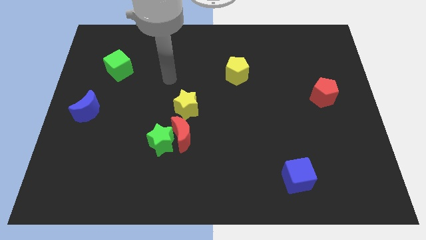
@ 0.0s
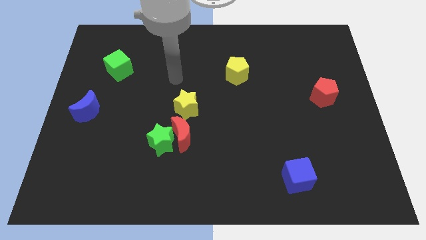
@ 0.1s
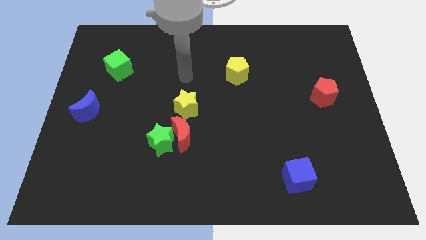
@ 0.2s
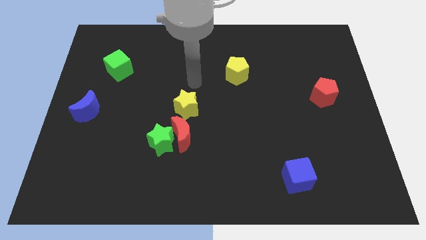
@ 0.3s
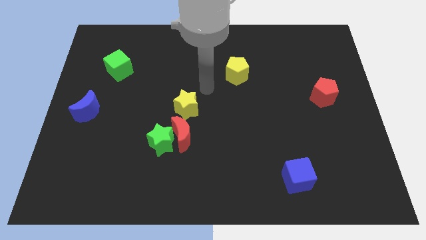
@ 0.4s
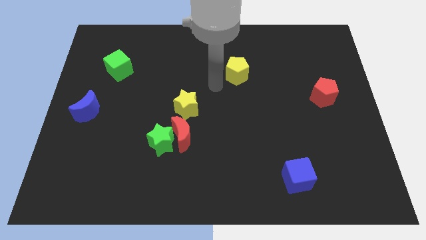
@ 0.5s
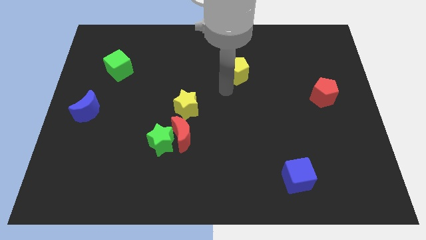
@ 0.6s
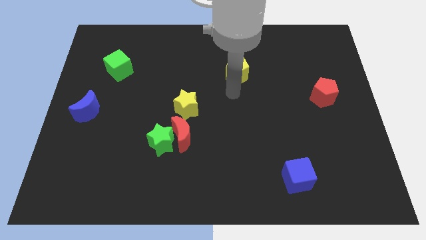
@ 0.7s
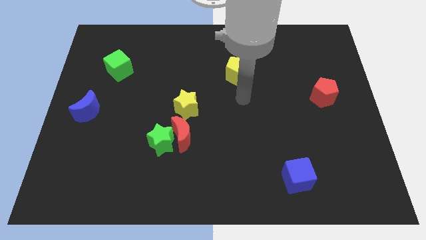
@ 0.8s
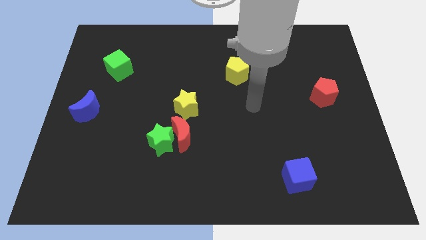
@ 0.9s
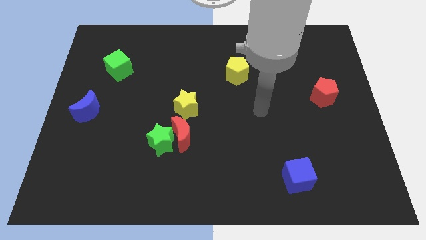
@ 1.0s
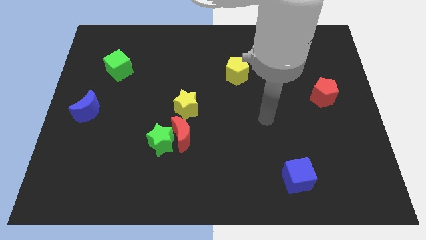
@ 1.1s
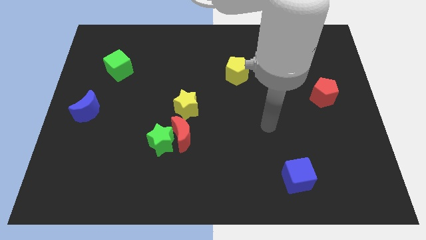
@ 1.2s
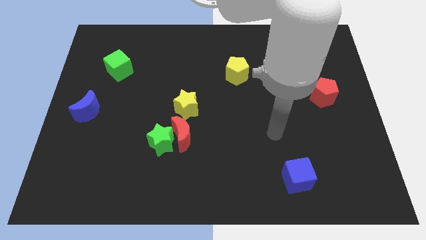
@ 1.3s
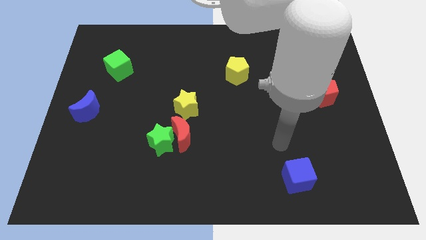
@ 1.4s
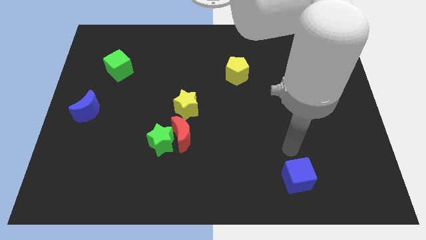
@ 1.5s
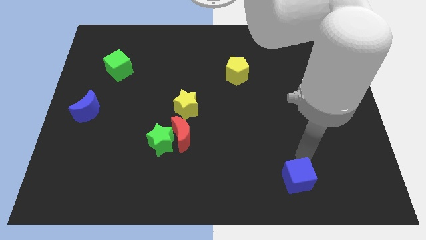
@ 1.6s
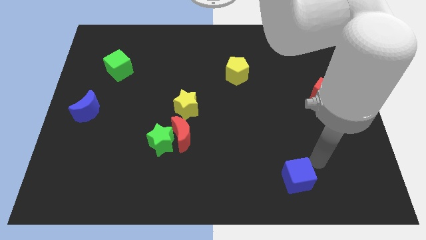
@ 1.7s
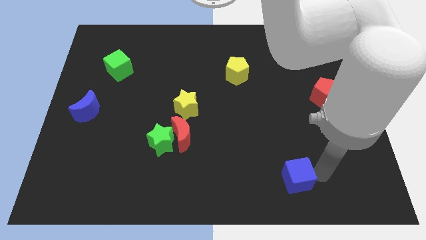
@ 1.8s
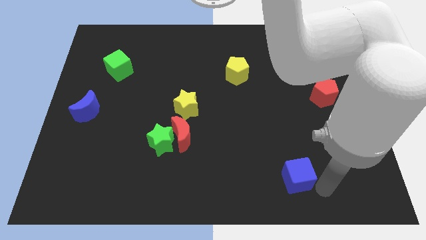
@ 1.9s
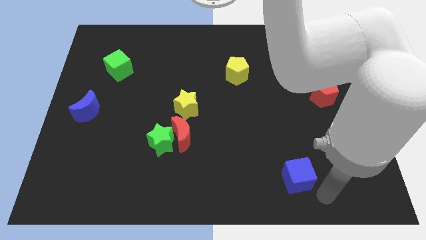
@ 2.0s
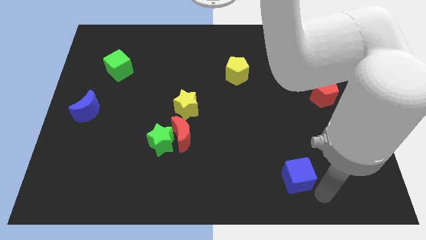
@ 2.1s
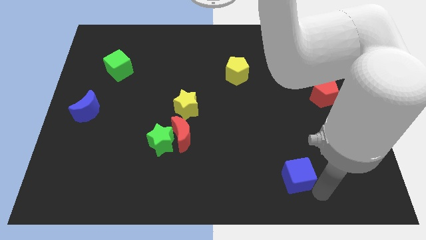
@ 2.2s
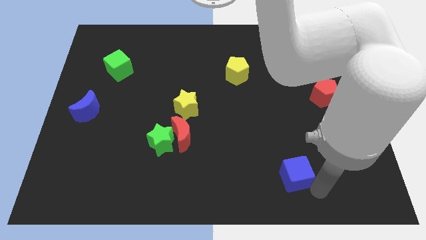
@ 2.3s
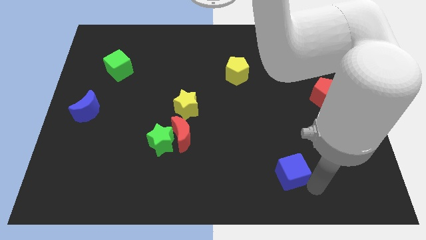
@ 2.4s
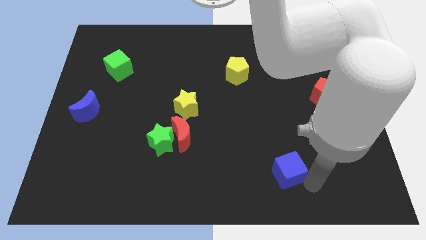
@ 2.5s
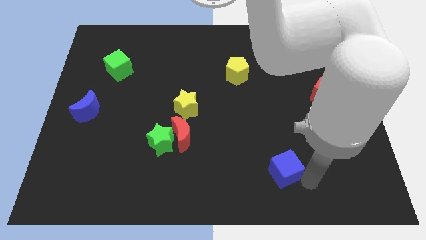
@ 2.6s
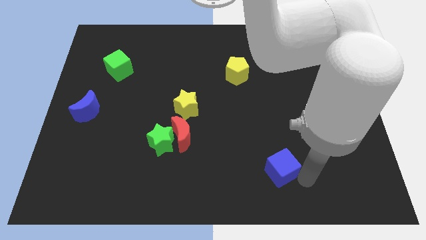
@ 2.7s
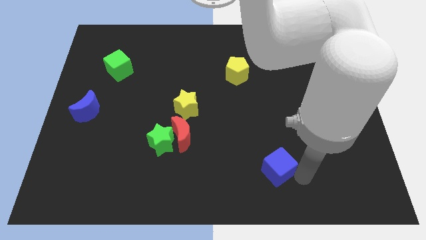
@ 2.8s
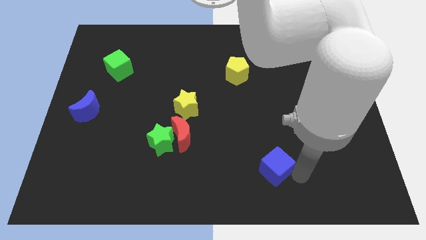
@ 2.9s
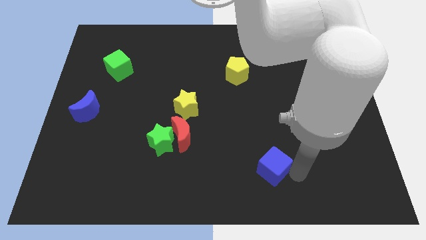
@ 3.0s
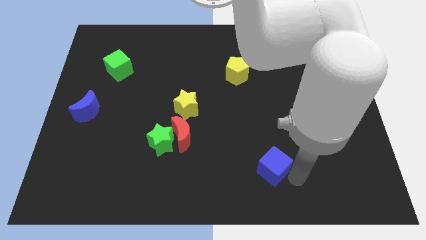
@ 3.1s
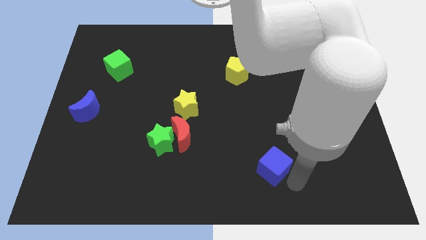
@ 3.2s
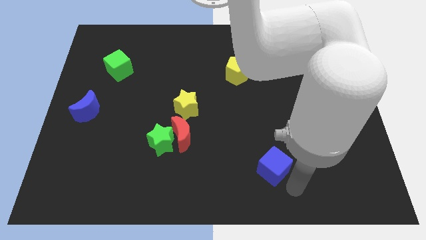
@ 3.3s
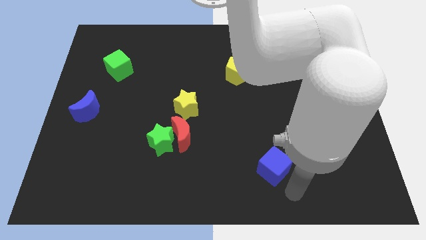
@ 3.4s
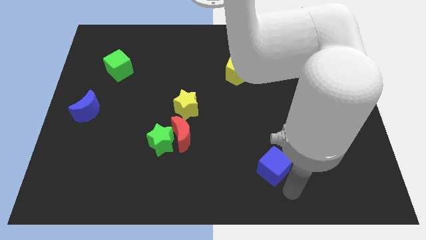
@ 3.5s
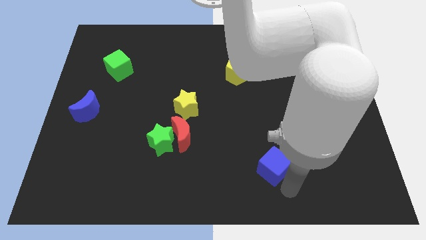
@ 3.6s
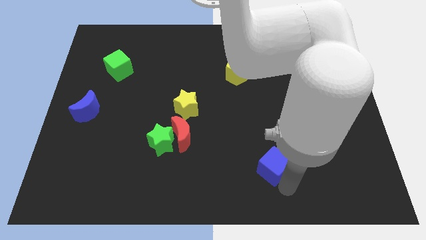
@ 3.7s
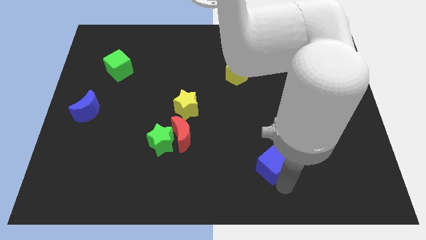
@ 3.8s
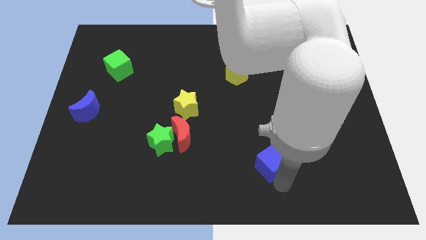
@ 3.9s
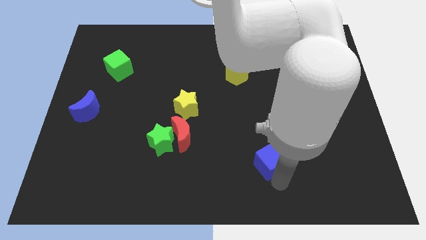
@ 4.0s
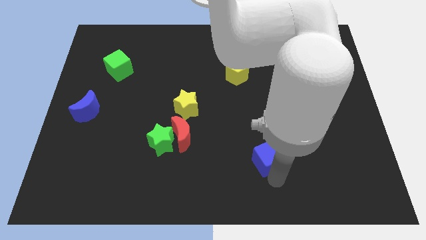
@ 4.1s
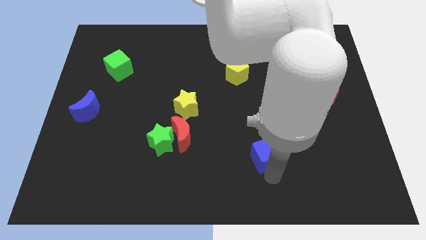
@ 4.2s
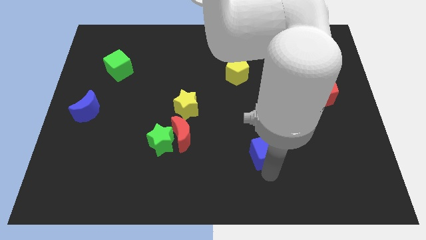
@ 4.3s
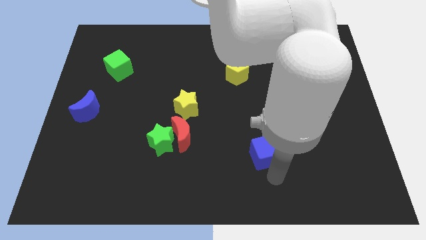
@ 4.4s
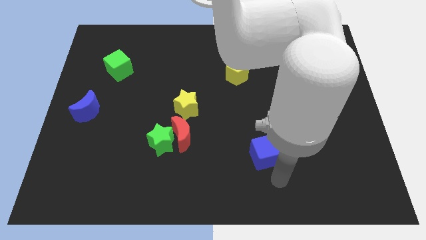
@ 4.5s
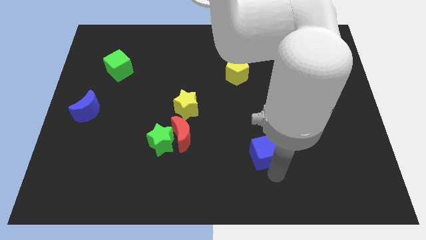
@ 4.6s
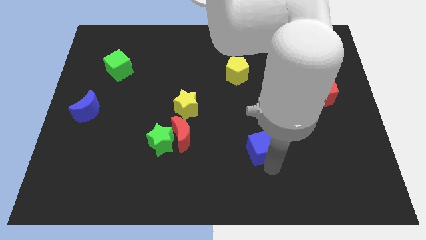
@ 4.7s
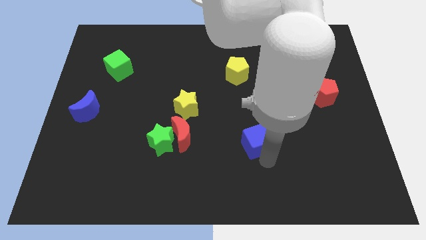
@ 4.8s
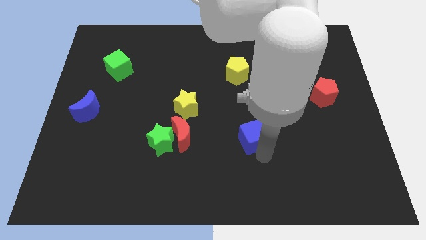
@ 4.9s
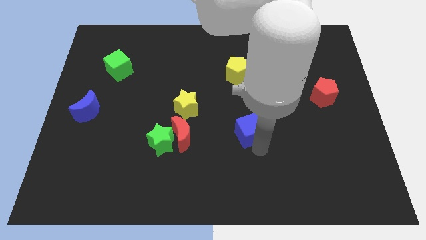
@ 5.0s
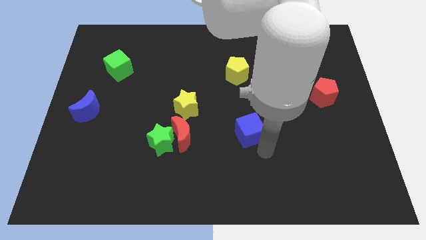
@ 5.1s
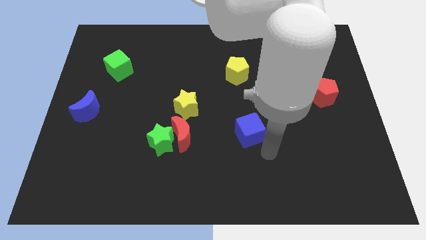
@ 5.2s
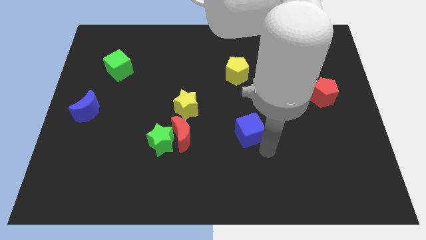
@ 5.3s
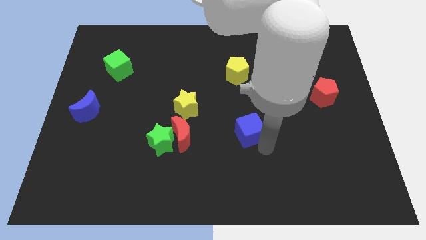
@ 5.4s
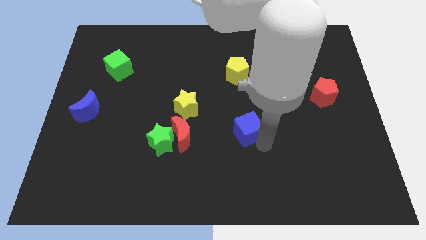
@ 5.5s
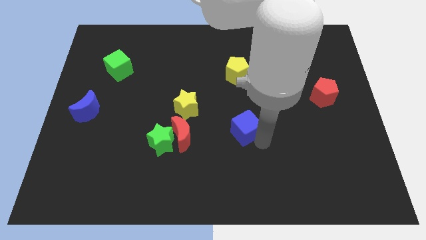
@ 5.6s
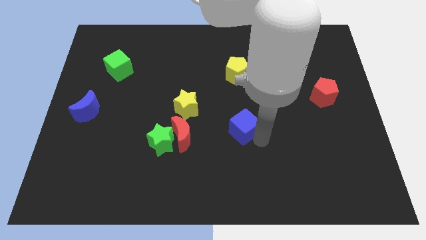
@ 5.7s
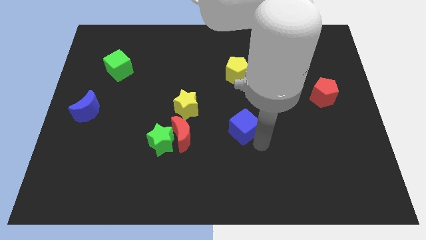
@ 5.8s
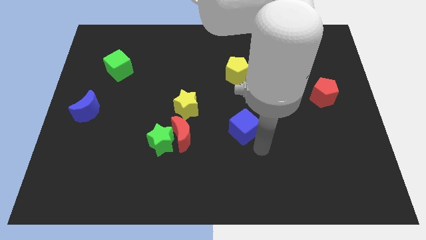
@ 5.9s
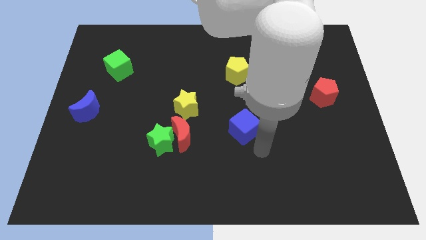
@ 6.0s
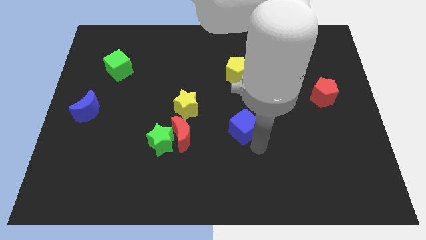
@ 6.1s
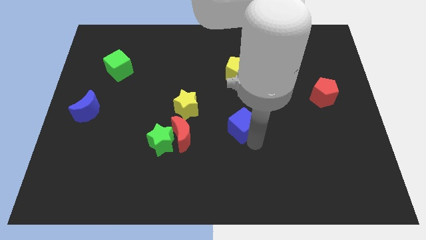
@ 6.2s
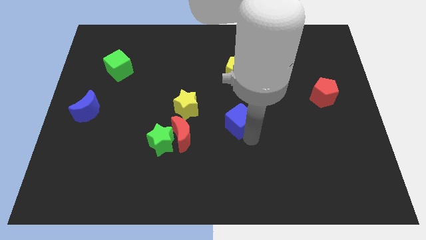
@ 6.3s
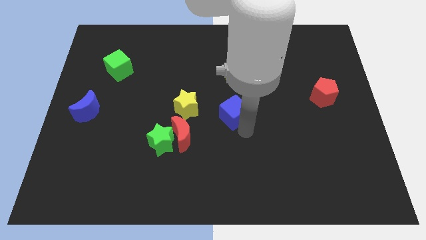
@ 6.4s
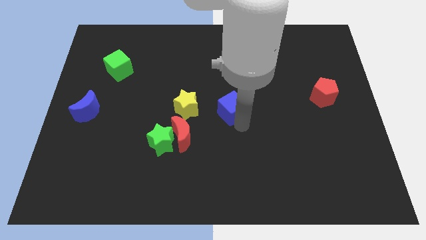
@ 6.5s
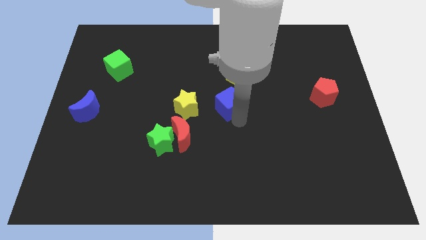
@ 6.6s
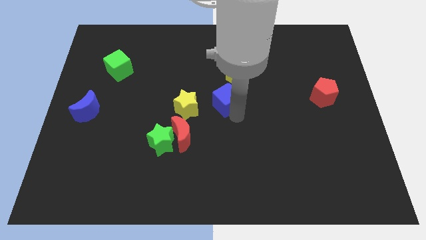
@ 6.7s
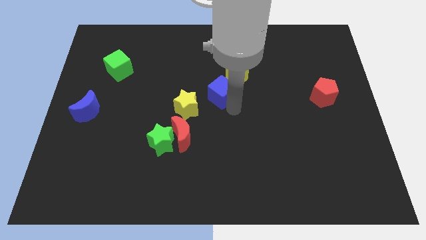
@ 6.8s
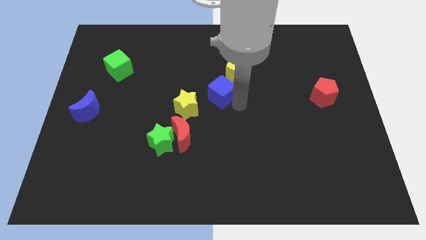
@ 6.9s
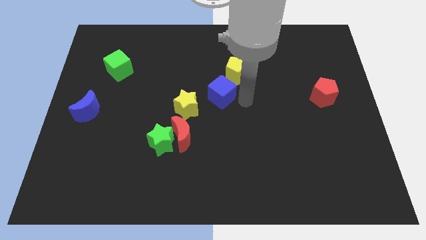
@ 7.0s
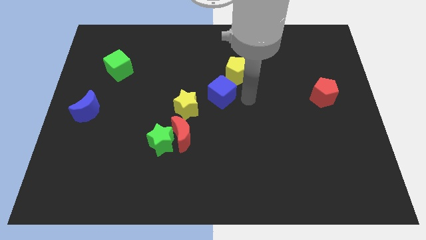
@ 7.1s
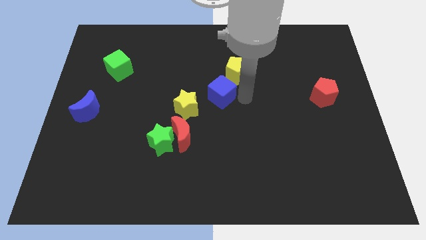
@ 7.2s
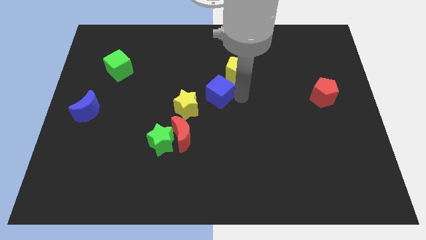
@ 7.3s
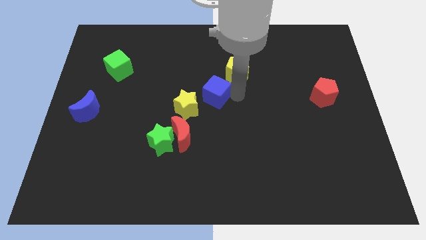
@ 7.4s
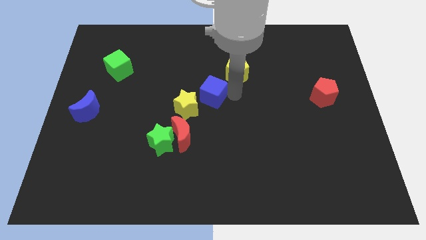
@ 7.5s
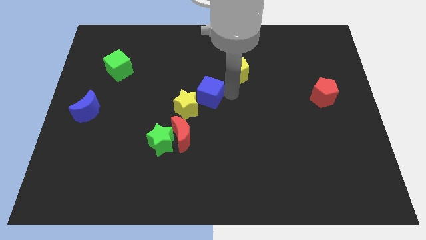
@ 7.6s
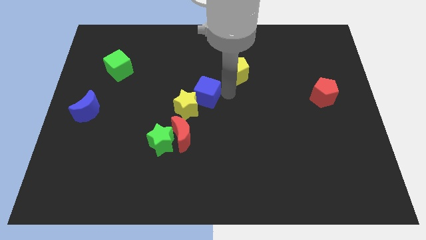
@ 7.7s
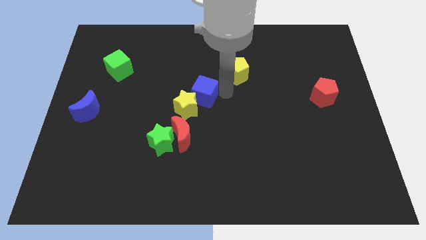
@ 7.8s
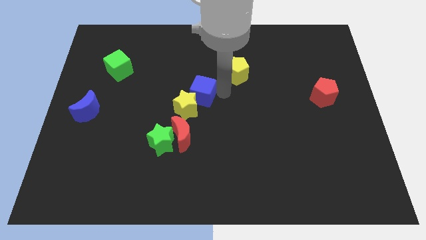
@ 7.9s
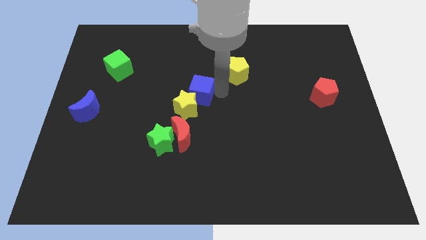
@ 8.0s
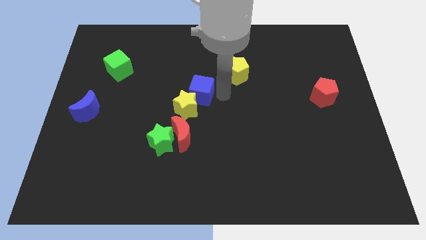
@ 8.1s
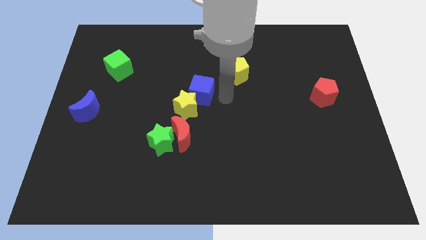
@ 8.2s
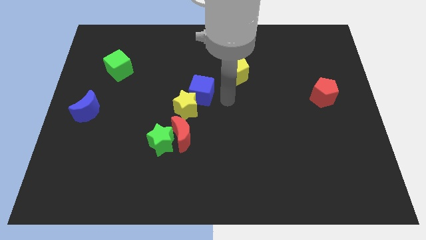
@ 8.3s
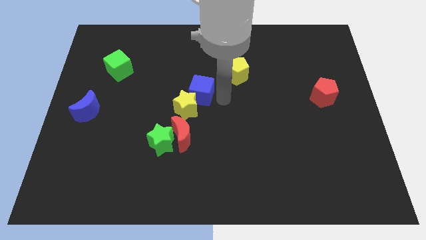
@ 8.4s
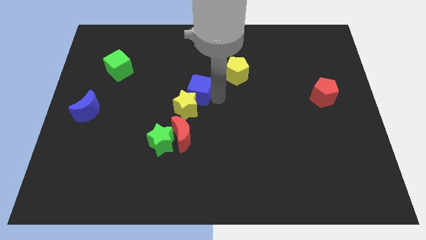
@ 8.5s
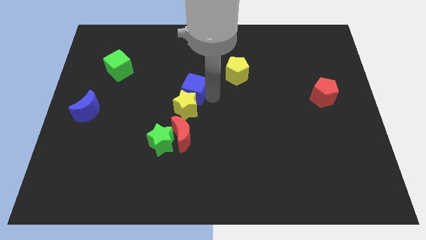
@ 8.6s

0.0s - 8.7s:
put the blue cube to the top left side of the yellow star
